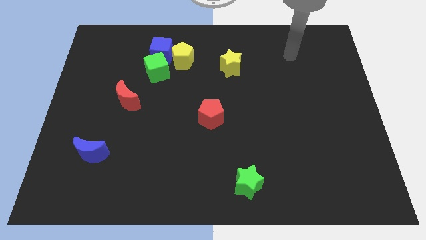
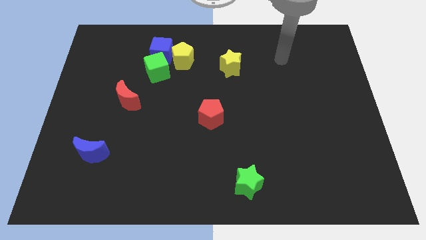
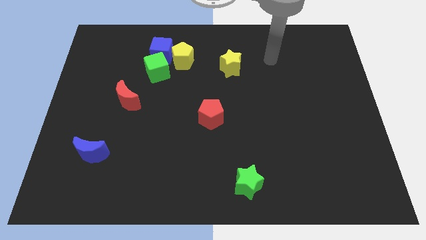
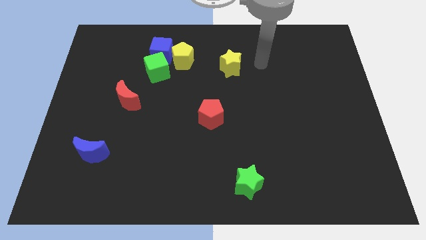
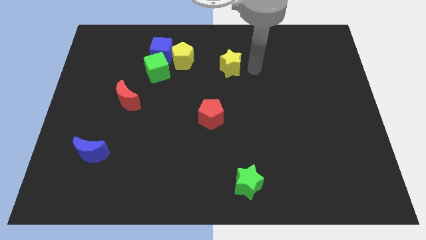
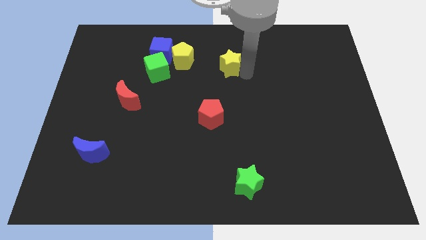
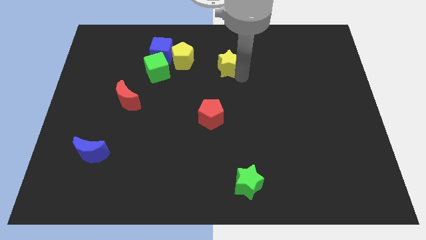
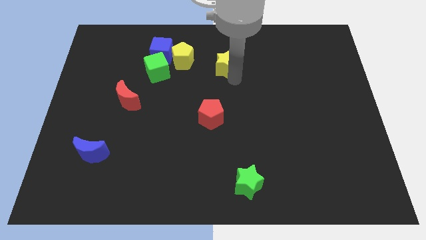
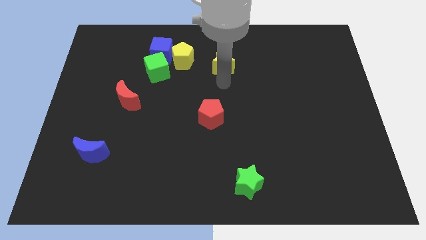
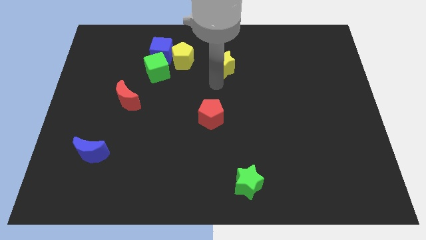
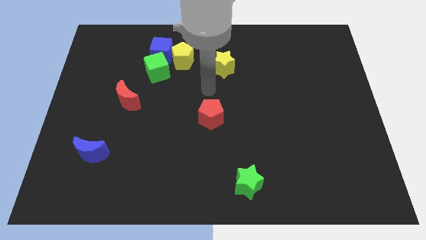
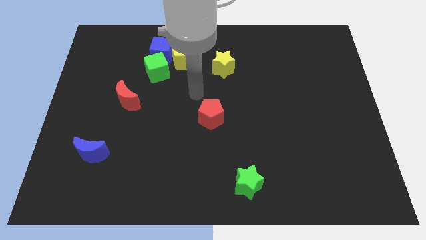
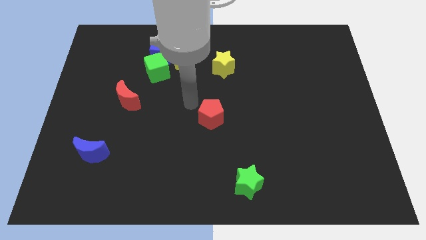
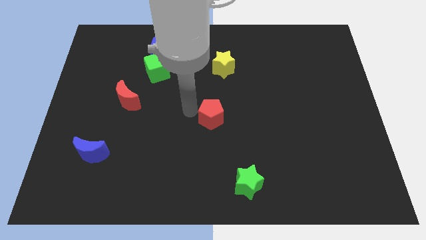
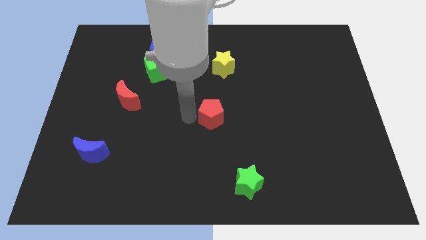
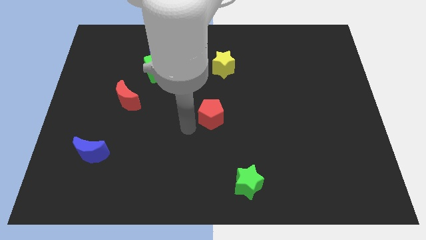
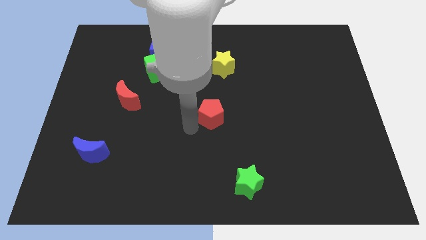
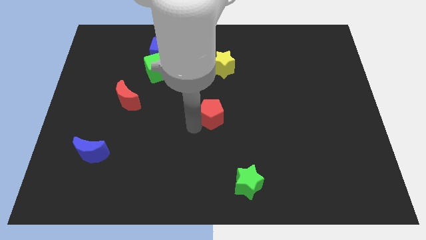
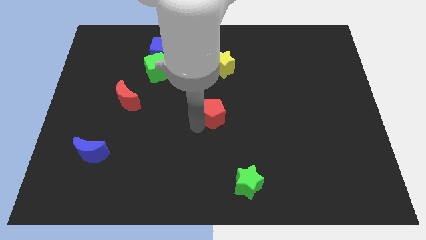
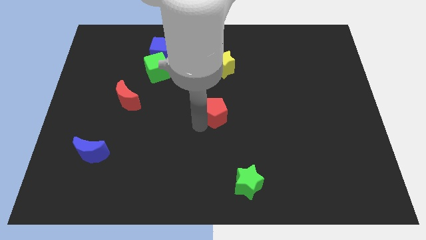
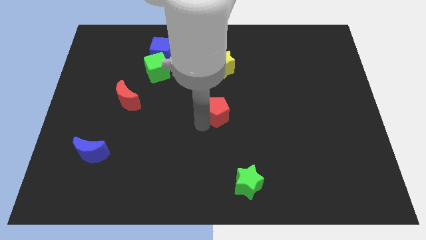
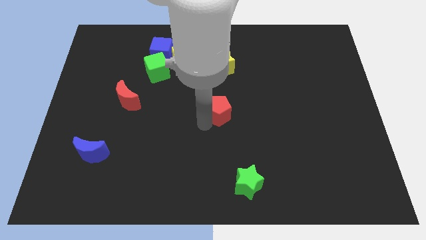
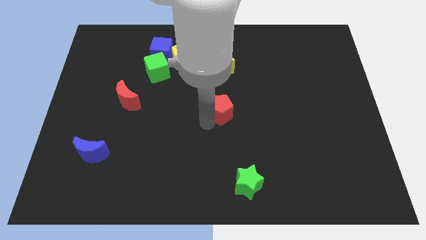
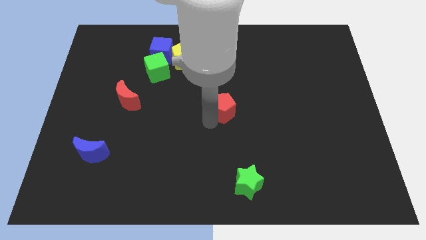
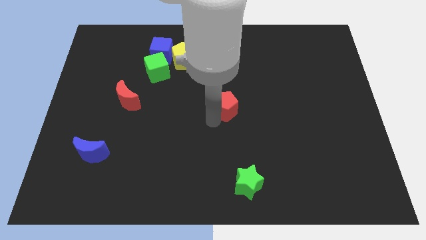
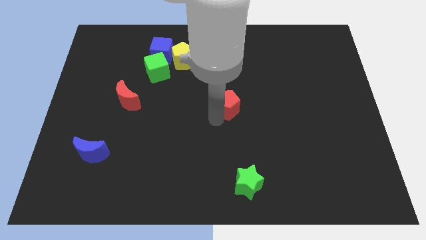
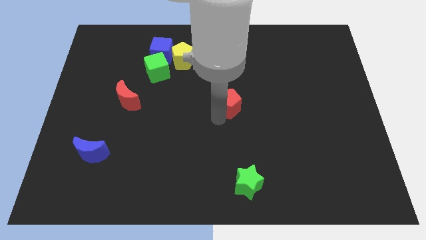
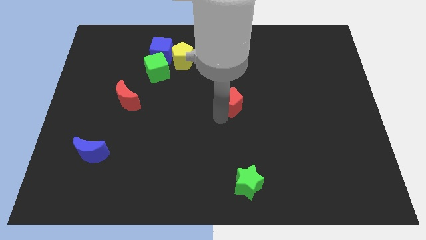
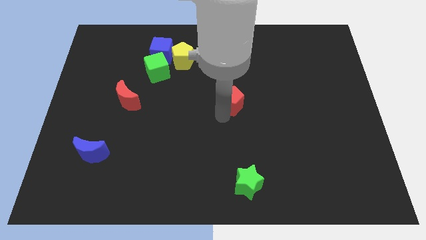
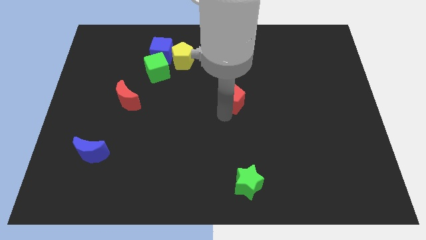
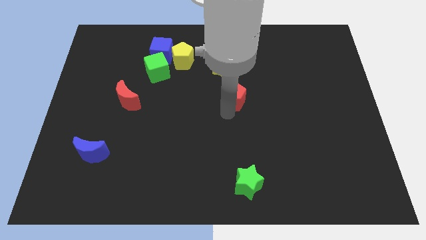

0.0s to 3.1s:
push the red pentagon diagonally up and to the right a bit

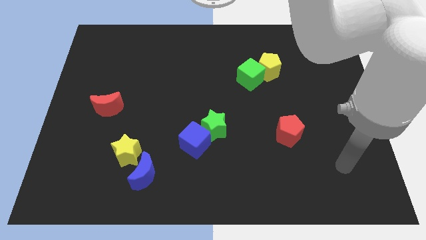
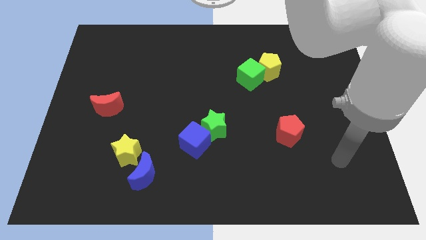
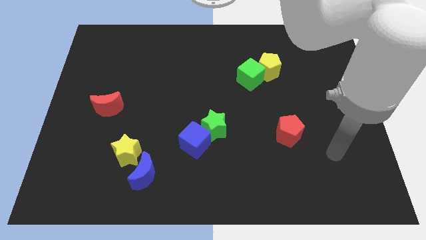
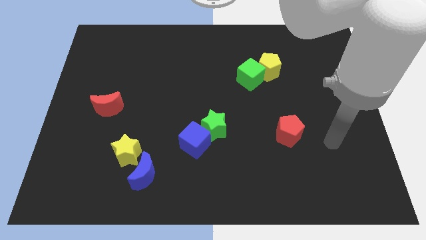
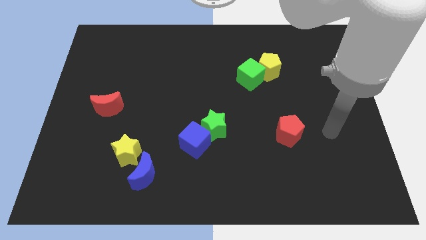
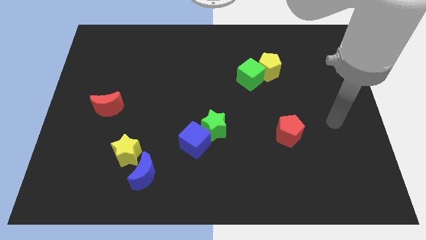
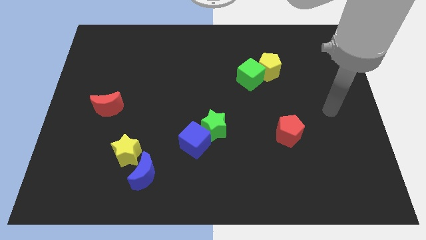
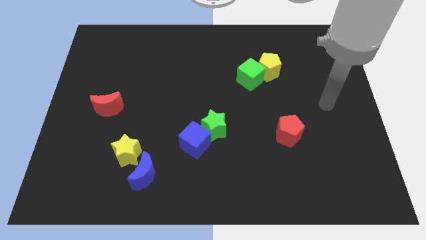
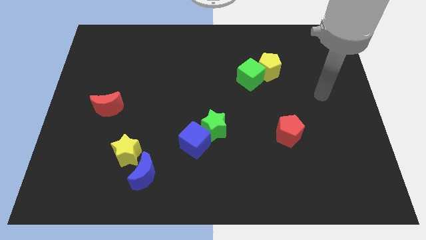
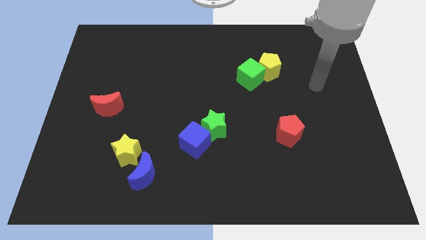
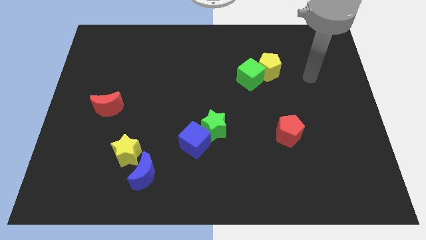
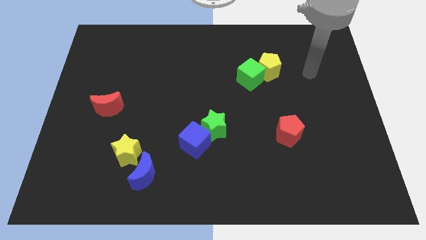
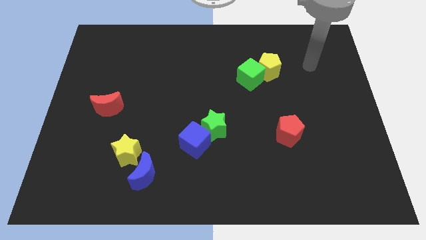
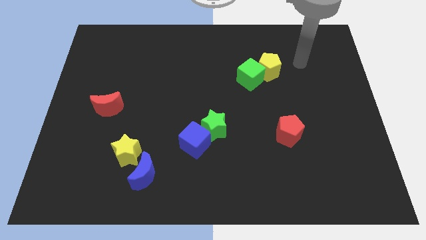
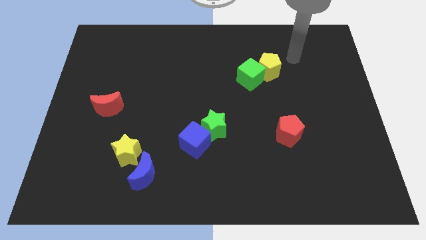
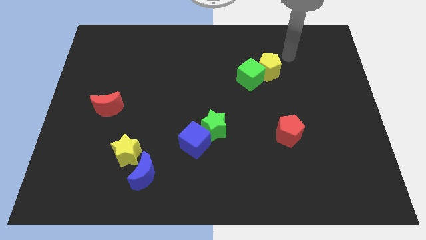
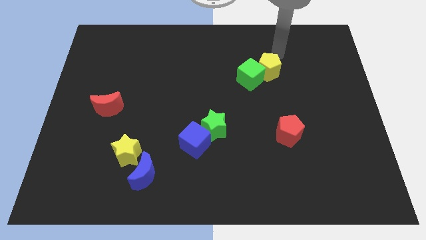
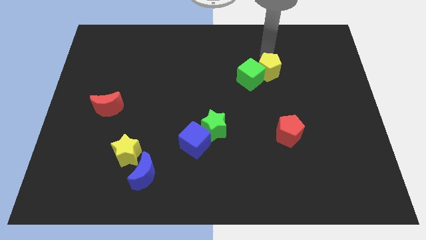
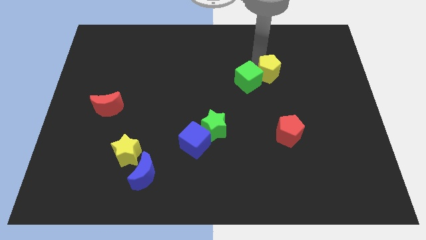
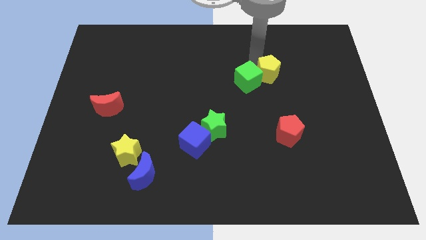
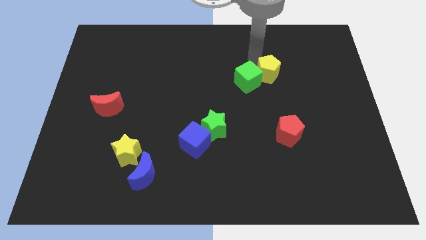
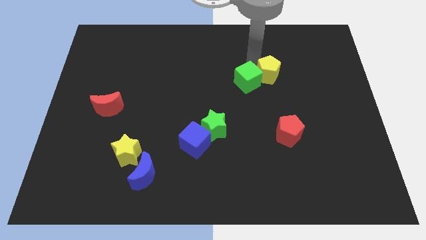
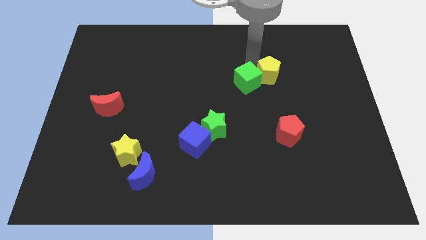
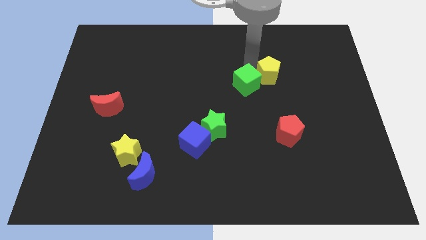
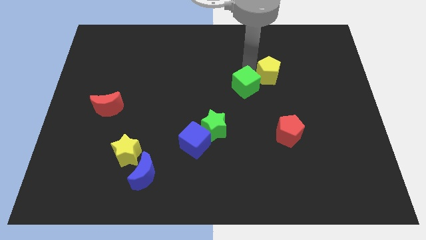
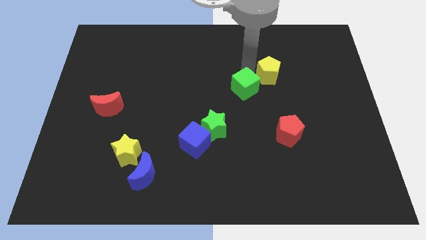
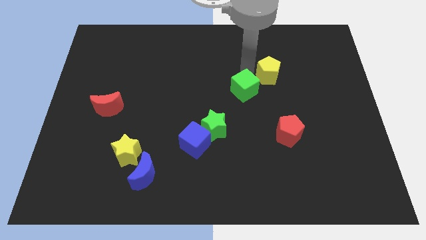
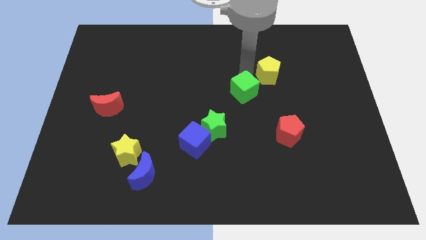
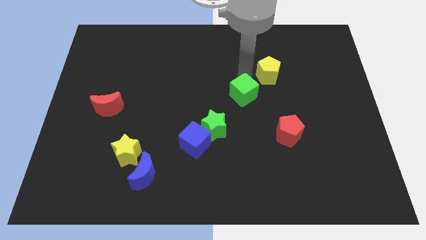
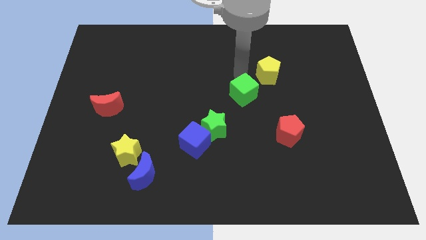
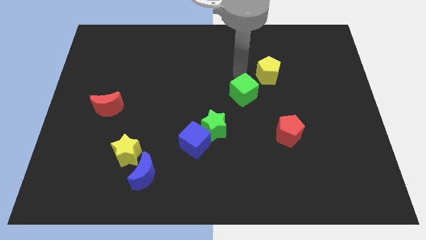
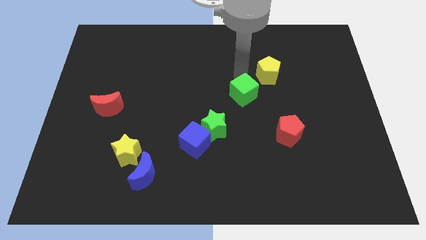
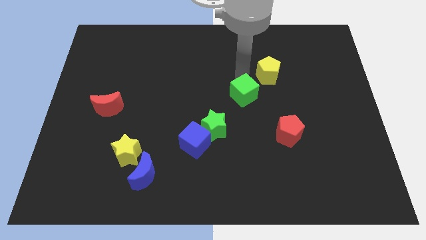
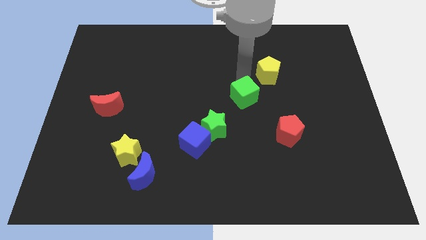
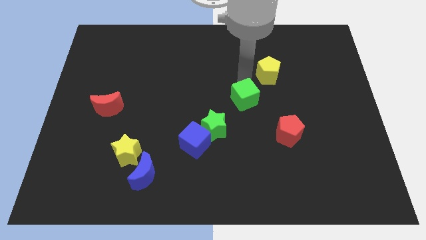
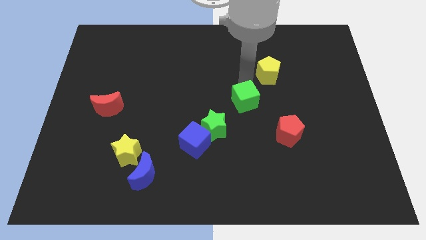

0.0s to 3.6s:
push the green cube a bit downwards

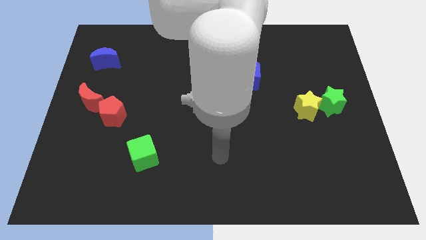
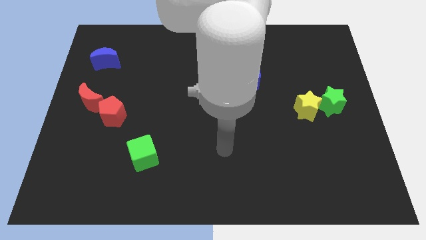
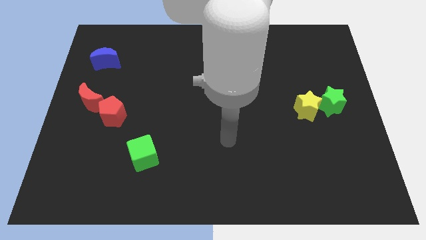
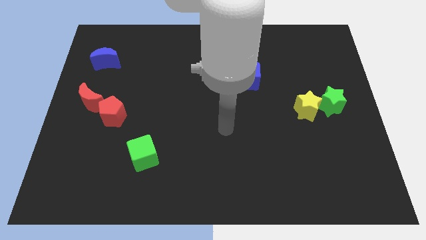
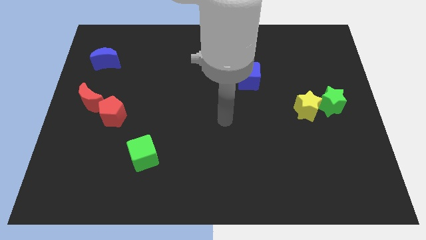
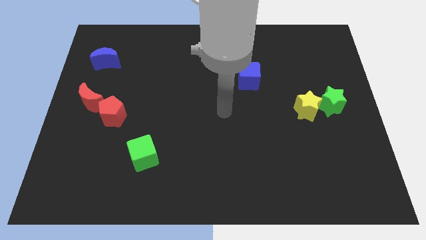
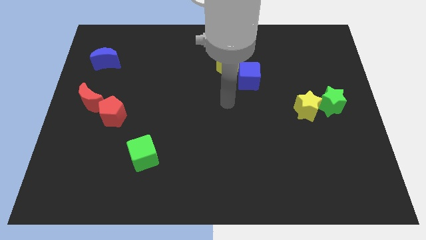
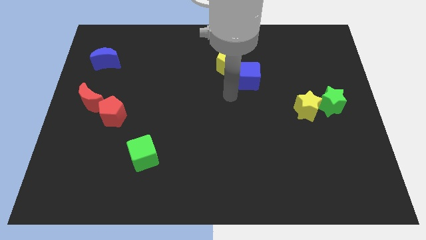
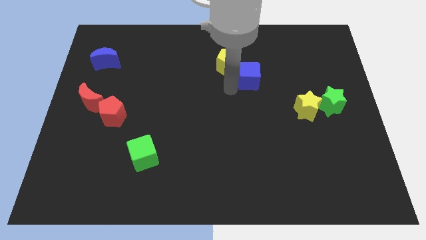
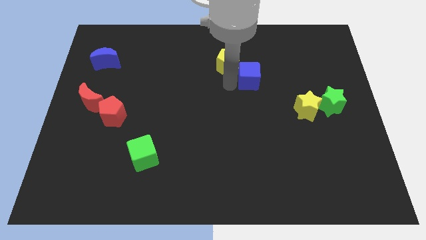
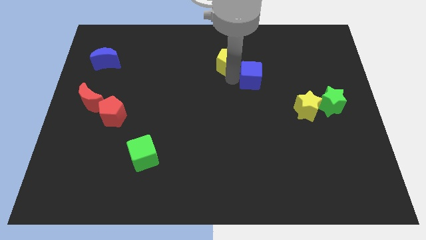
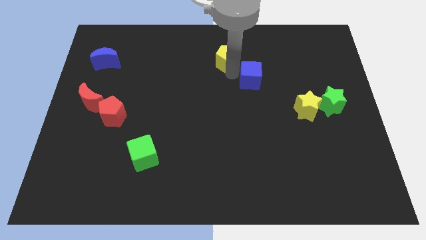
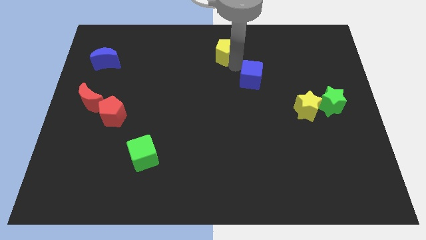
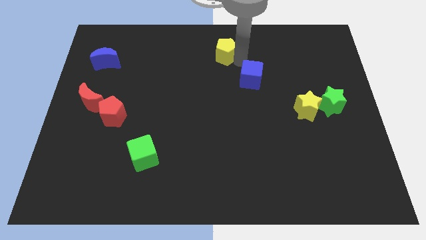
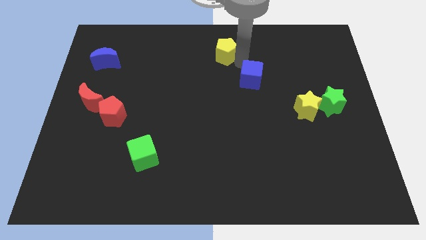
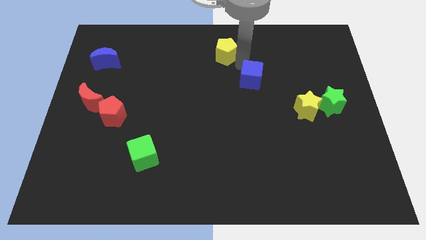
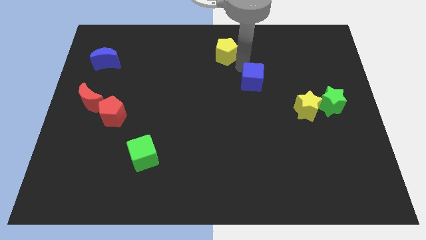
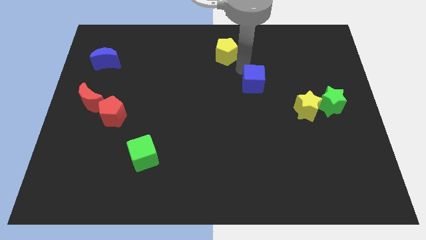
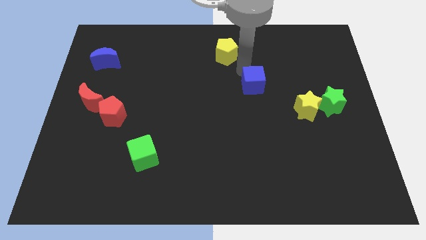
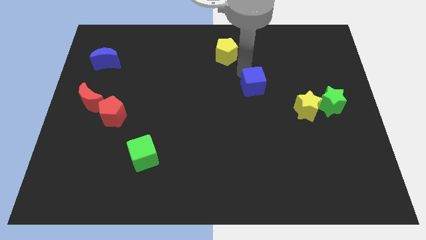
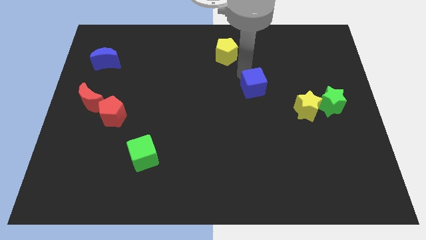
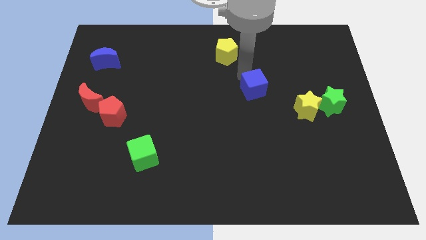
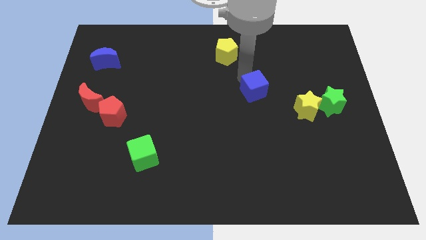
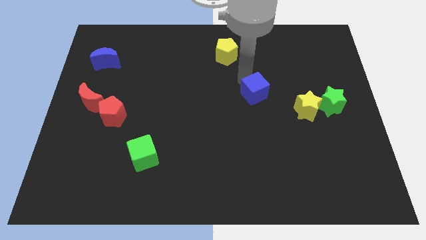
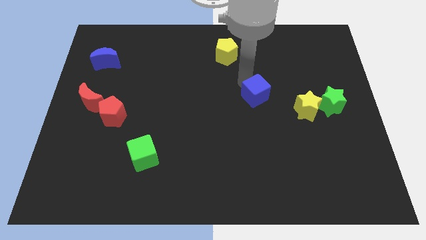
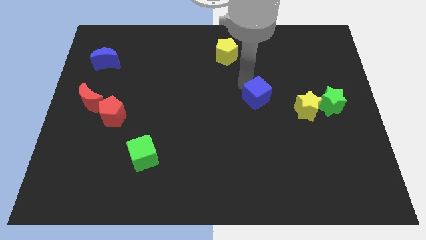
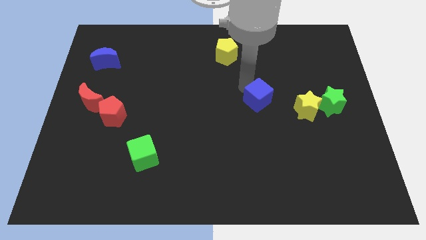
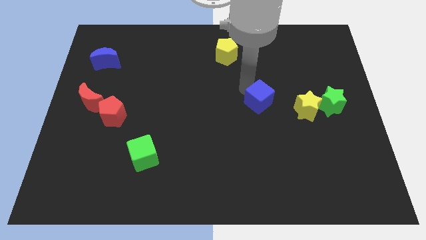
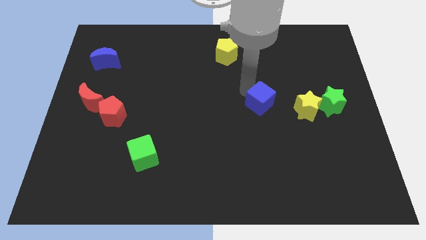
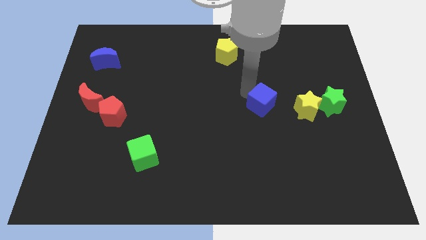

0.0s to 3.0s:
move the blue cube a bit down and then to the right
